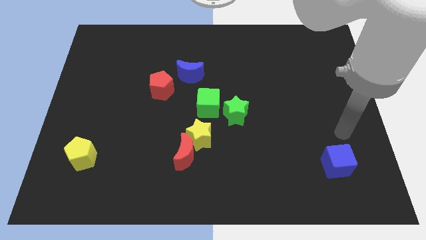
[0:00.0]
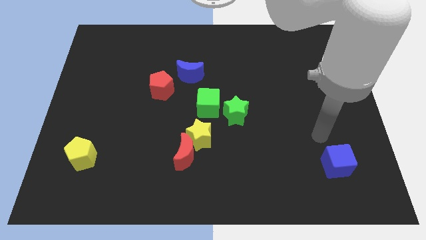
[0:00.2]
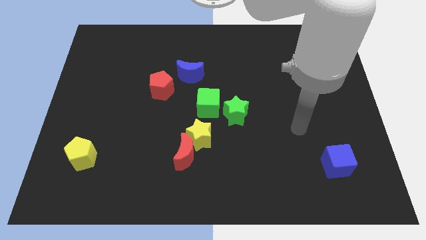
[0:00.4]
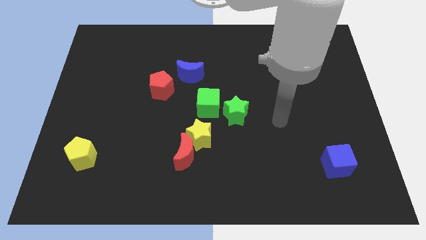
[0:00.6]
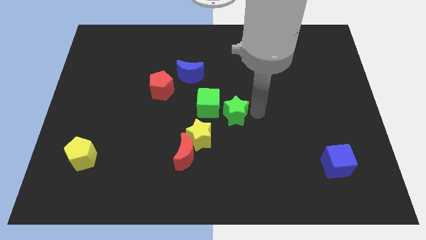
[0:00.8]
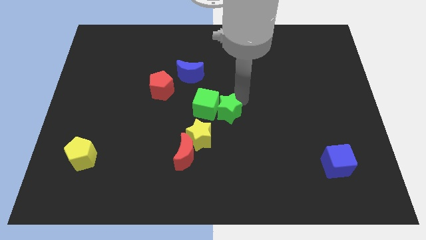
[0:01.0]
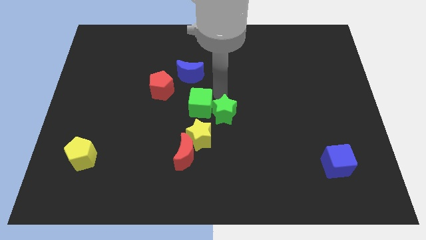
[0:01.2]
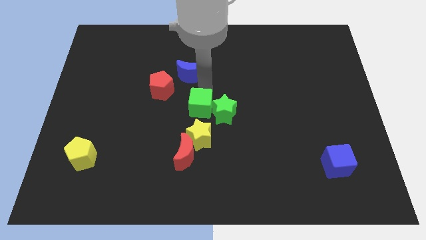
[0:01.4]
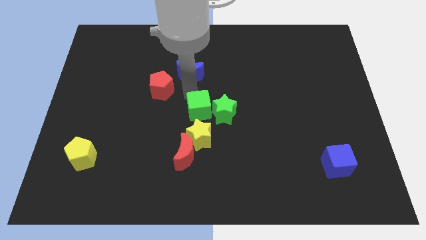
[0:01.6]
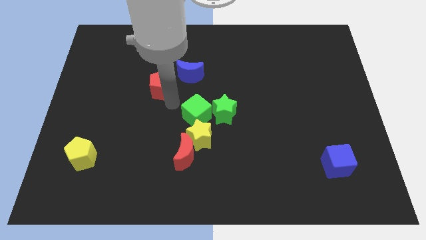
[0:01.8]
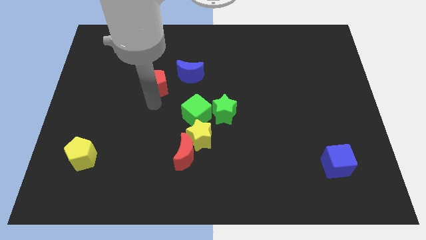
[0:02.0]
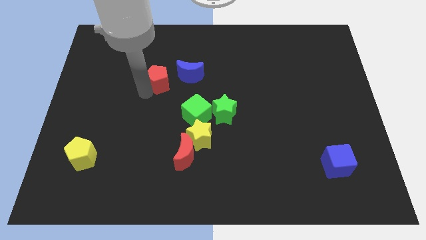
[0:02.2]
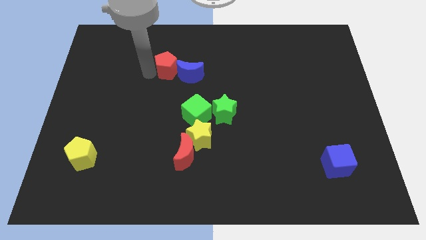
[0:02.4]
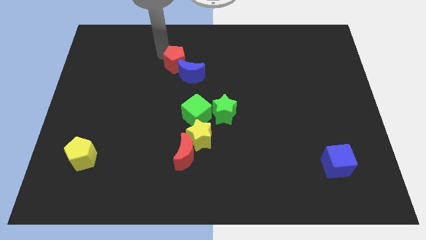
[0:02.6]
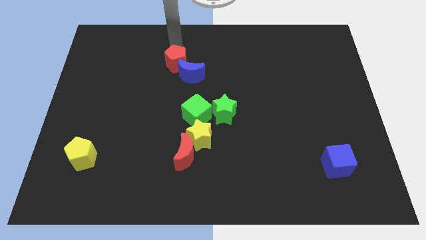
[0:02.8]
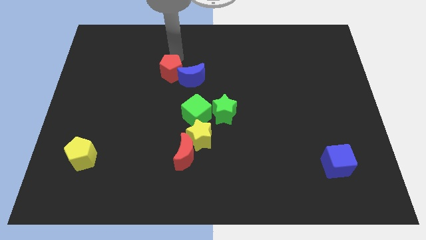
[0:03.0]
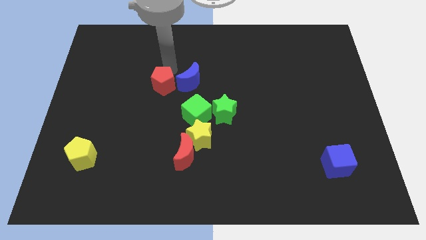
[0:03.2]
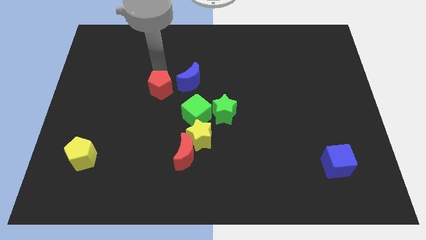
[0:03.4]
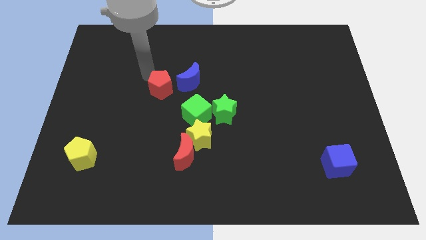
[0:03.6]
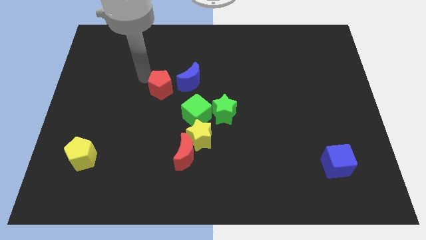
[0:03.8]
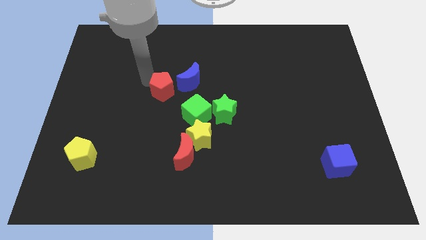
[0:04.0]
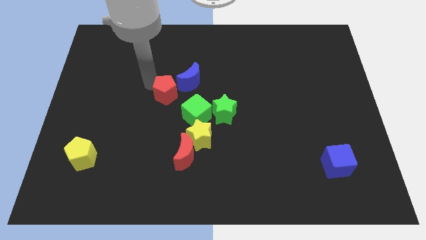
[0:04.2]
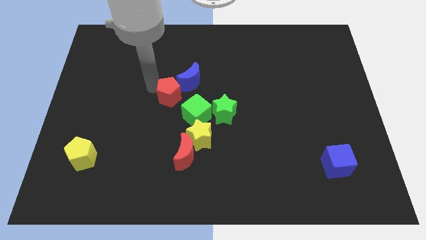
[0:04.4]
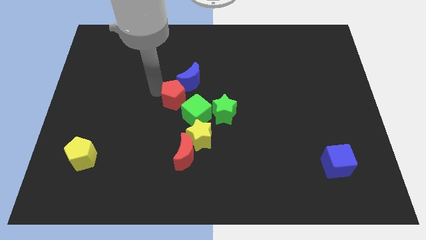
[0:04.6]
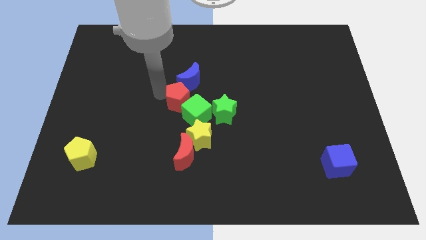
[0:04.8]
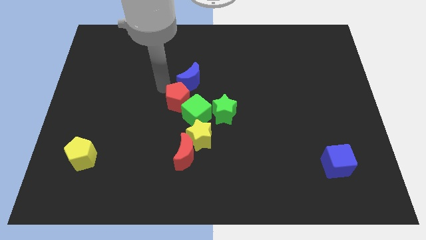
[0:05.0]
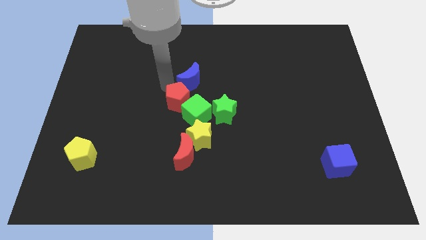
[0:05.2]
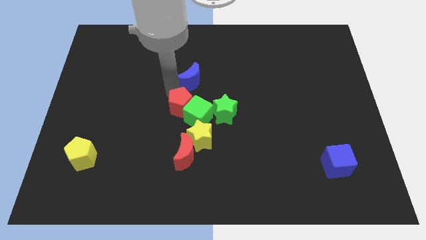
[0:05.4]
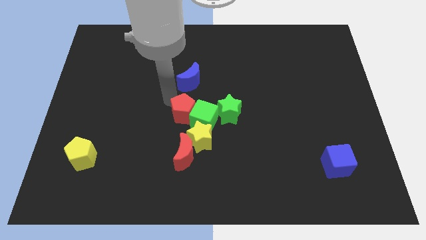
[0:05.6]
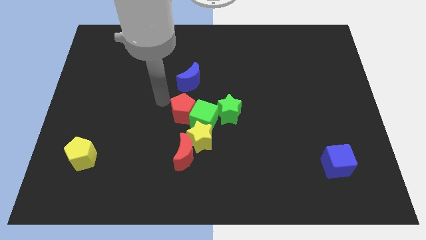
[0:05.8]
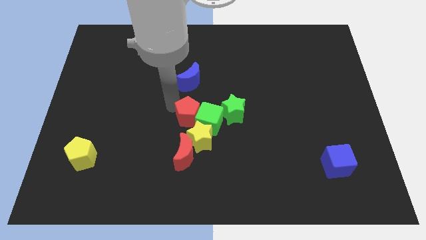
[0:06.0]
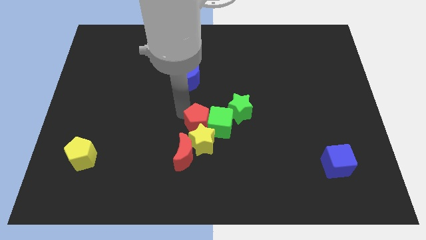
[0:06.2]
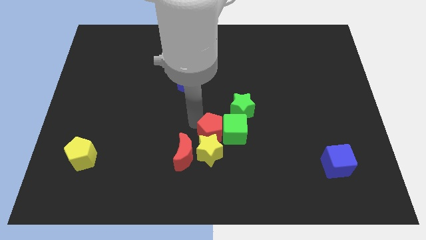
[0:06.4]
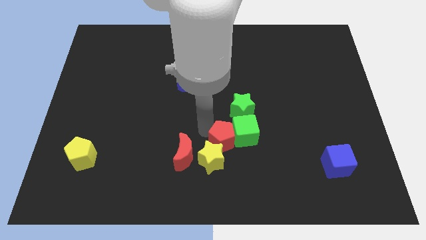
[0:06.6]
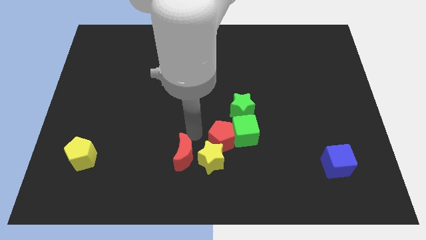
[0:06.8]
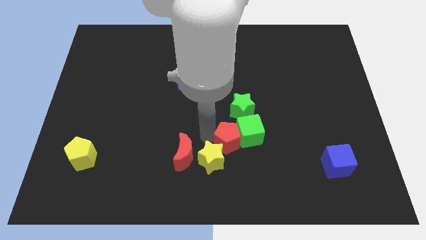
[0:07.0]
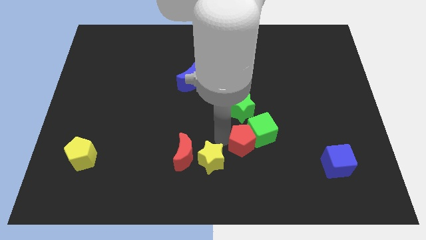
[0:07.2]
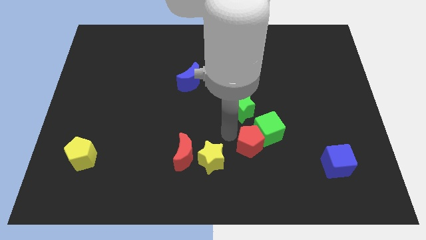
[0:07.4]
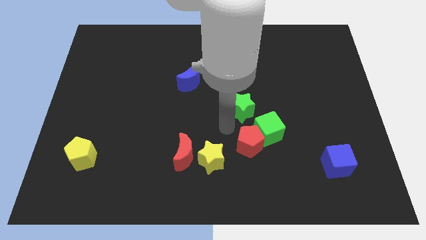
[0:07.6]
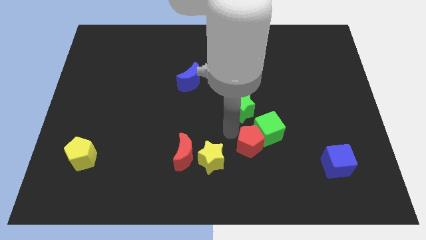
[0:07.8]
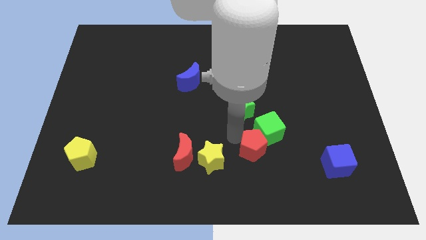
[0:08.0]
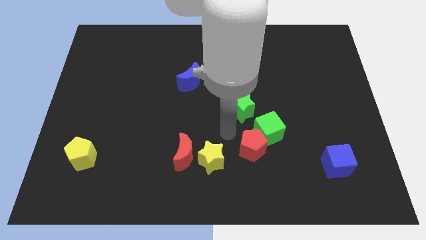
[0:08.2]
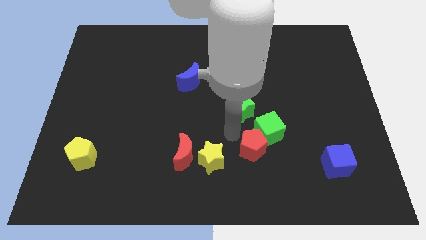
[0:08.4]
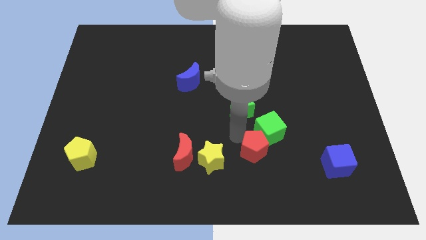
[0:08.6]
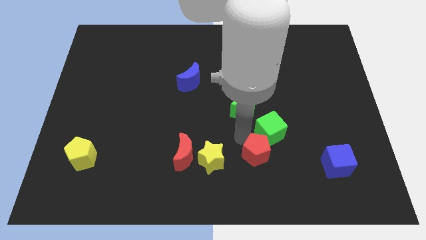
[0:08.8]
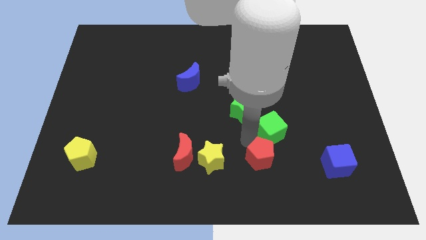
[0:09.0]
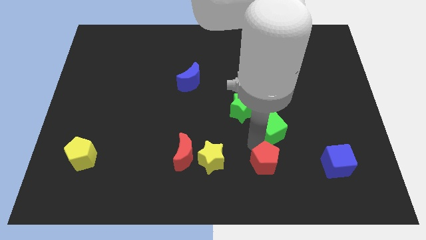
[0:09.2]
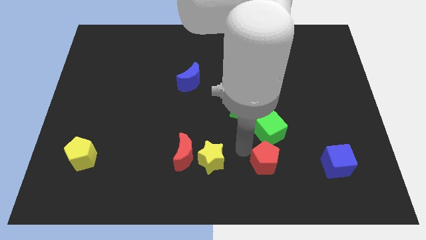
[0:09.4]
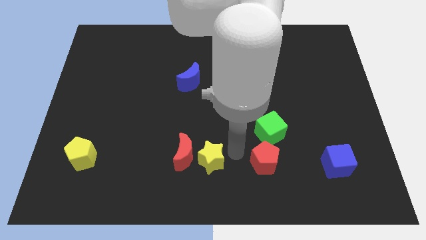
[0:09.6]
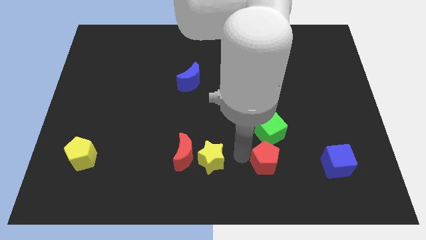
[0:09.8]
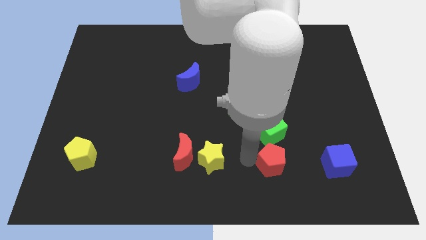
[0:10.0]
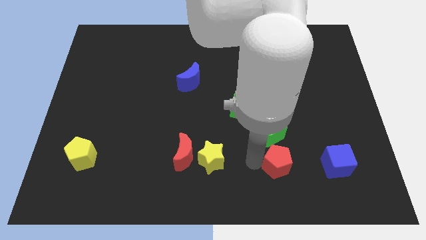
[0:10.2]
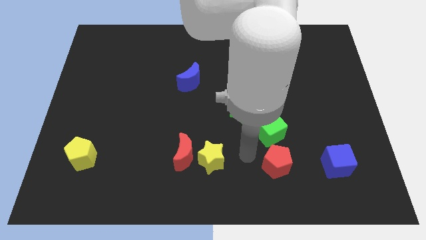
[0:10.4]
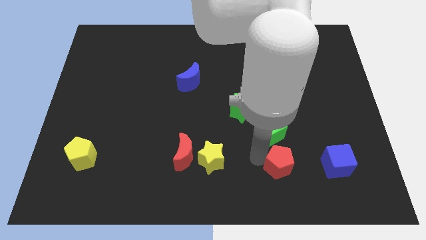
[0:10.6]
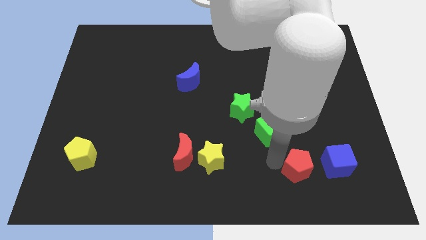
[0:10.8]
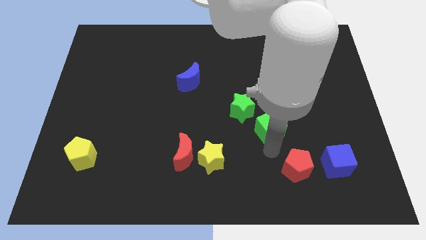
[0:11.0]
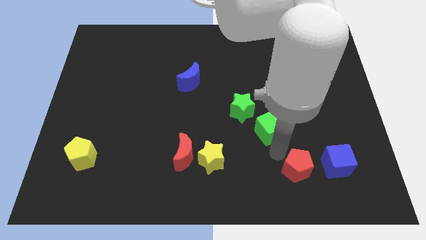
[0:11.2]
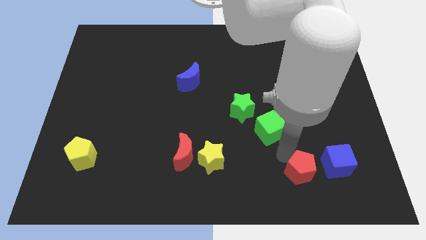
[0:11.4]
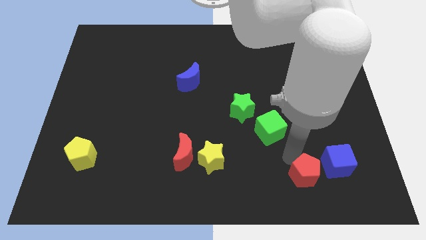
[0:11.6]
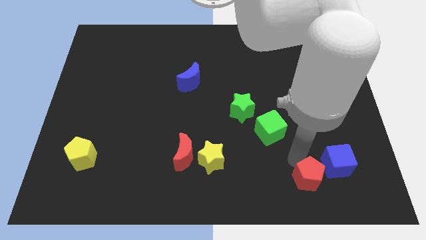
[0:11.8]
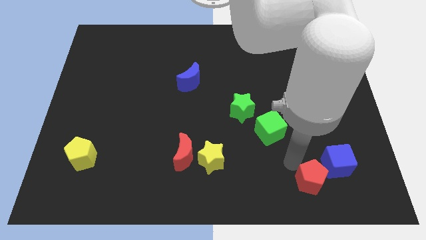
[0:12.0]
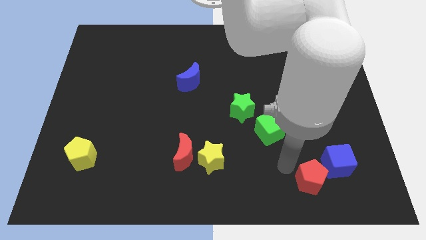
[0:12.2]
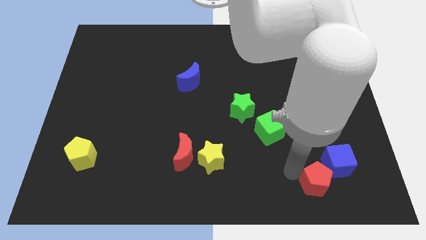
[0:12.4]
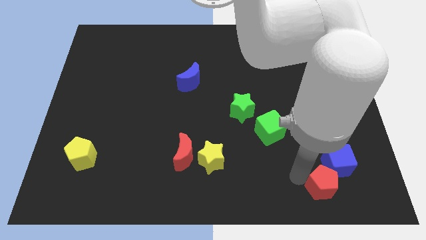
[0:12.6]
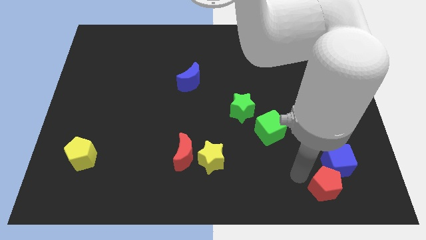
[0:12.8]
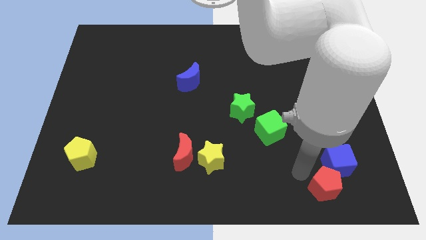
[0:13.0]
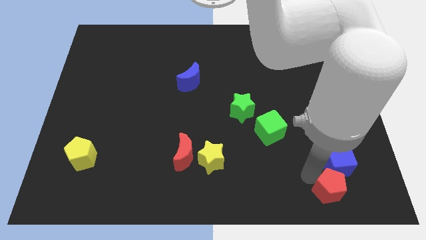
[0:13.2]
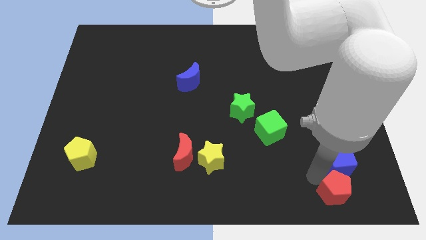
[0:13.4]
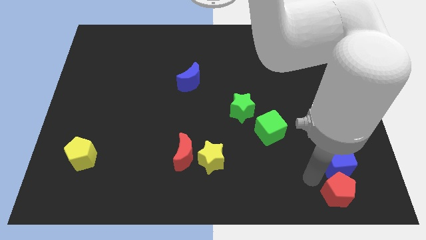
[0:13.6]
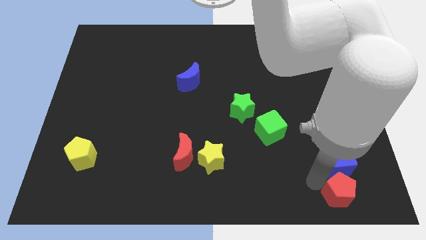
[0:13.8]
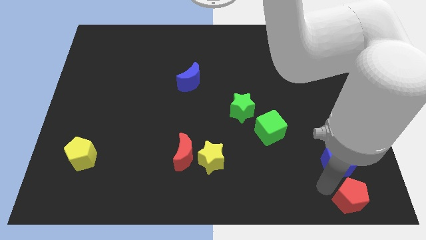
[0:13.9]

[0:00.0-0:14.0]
slide the red pentagon to the lower right corner
